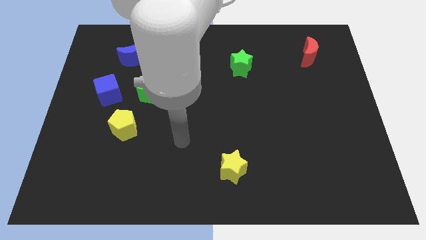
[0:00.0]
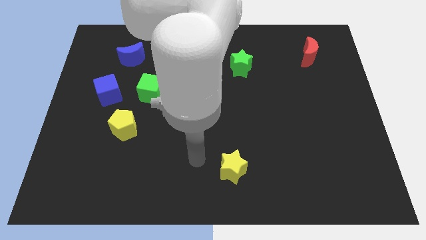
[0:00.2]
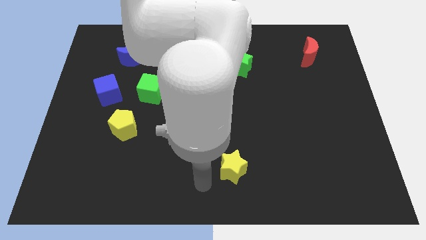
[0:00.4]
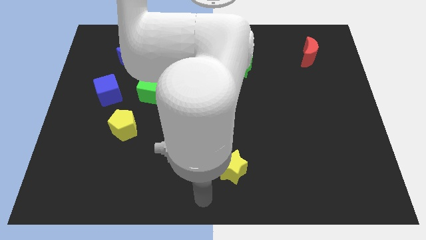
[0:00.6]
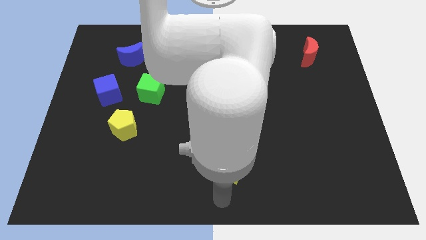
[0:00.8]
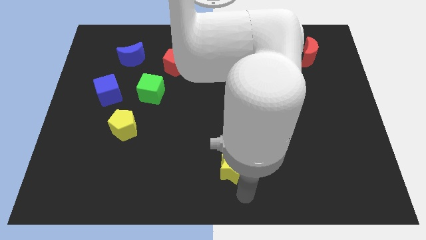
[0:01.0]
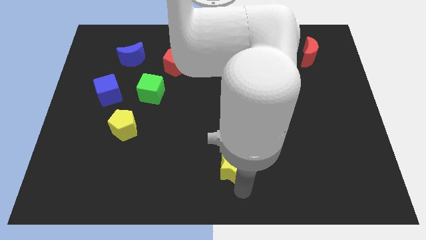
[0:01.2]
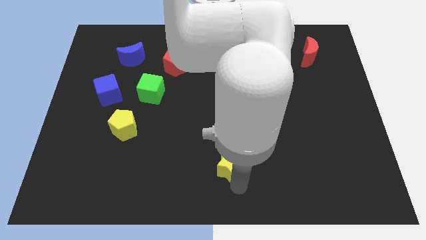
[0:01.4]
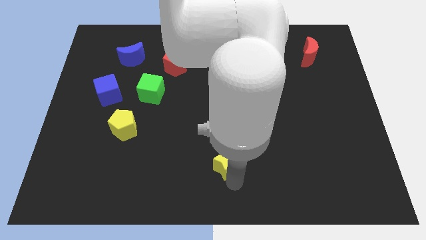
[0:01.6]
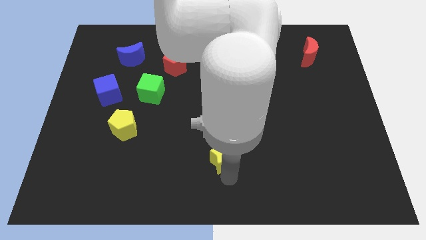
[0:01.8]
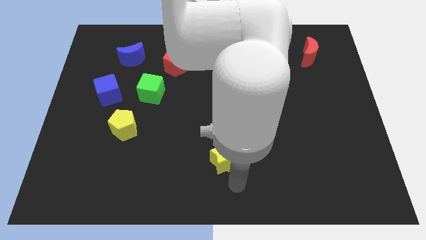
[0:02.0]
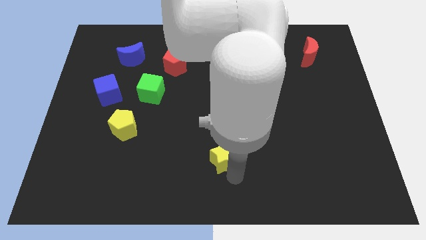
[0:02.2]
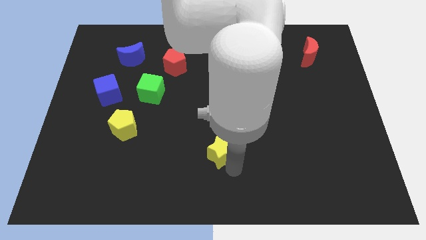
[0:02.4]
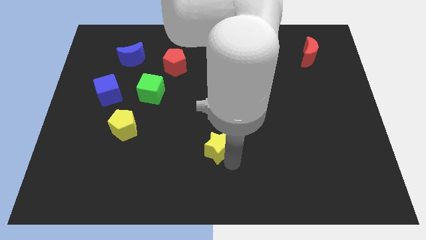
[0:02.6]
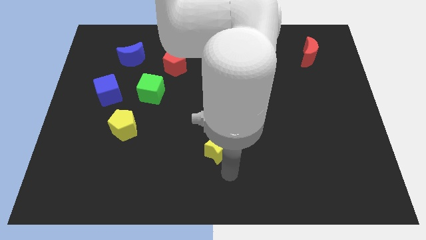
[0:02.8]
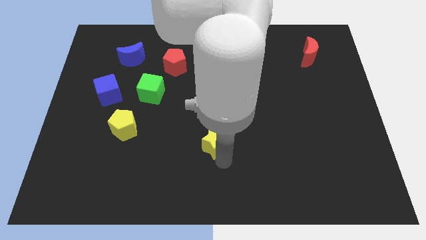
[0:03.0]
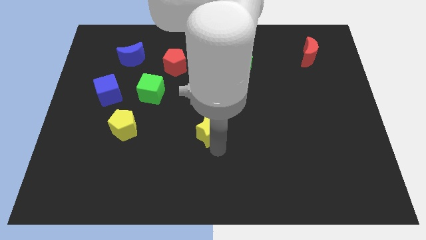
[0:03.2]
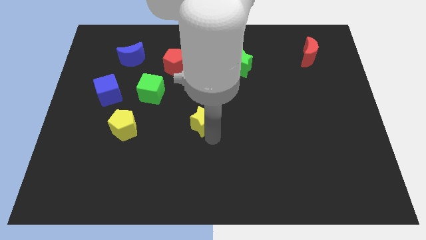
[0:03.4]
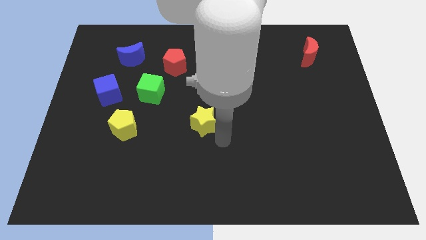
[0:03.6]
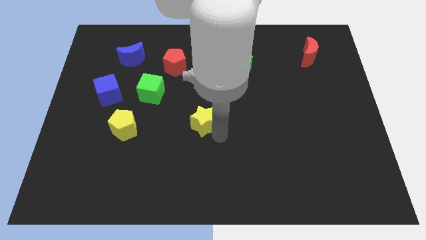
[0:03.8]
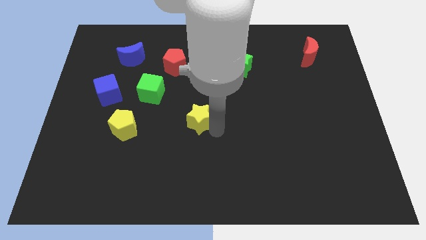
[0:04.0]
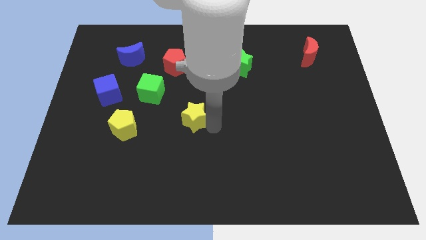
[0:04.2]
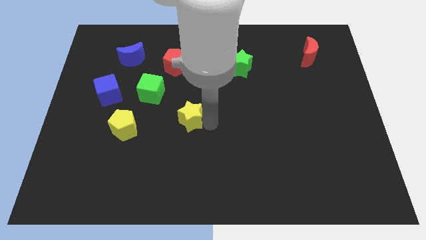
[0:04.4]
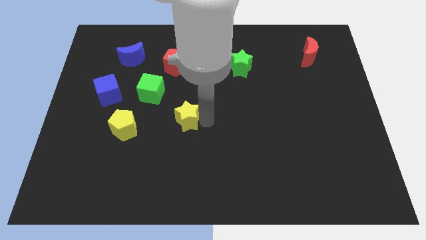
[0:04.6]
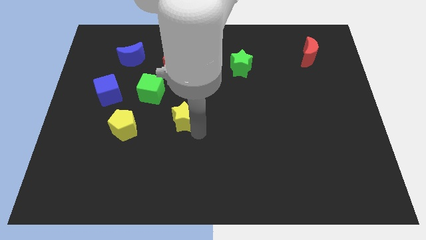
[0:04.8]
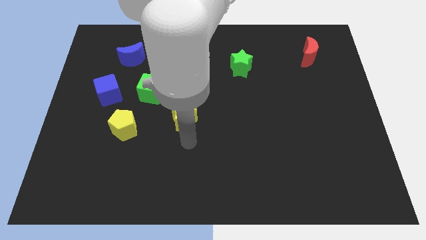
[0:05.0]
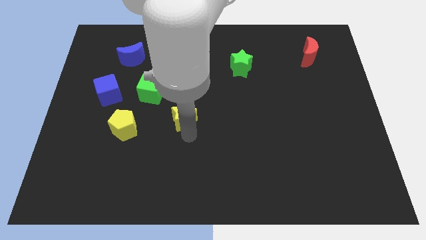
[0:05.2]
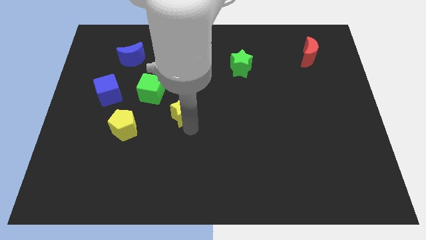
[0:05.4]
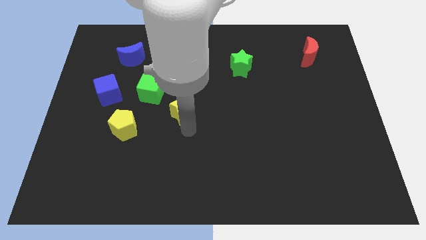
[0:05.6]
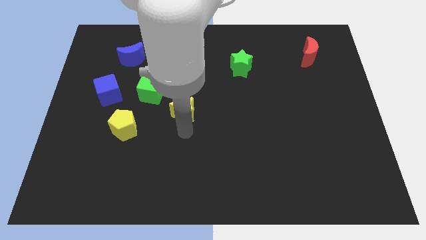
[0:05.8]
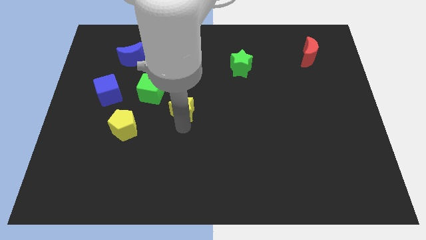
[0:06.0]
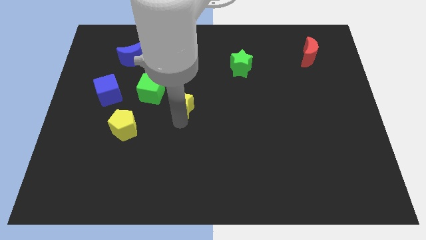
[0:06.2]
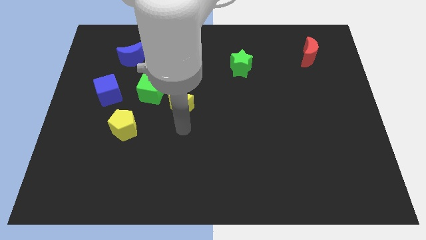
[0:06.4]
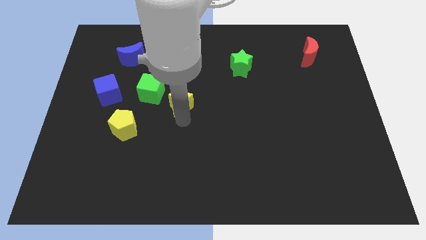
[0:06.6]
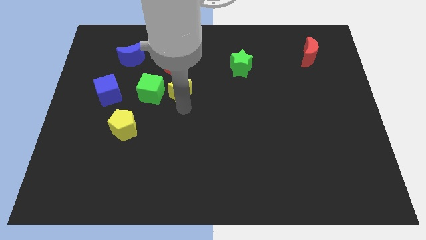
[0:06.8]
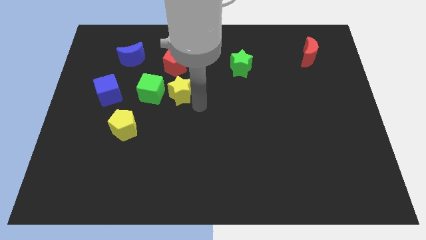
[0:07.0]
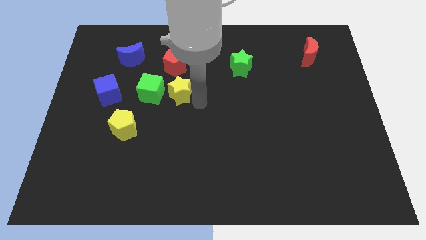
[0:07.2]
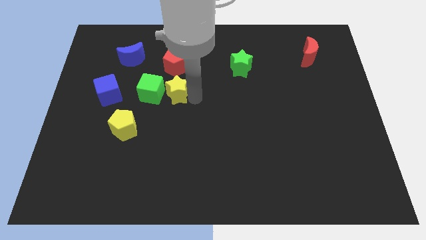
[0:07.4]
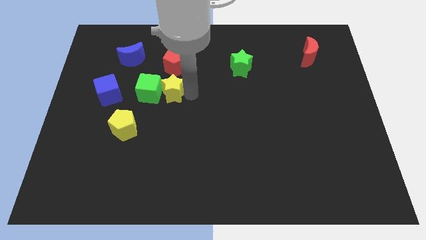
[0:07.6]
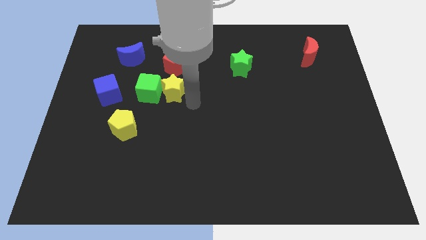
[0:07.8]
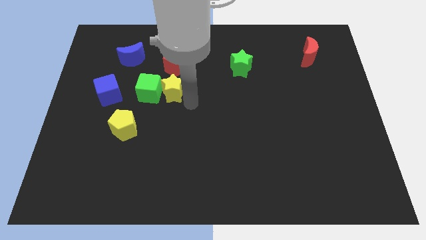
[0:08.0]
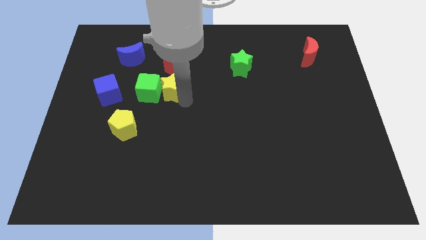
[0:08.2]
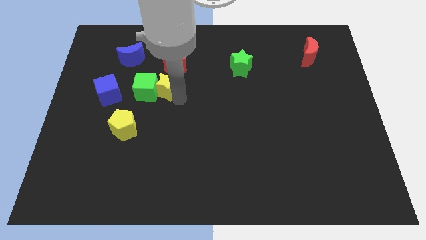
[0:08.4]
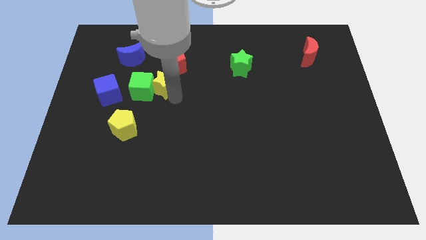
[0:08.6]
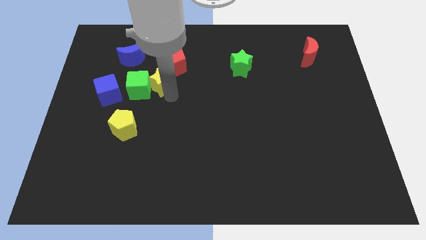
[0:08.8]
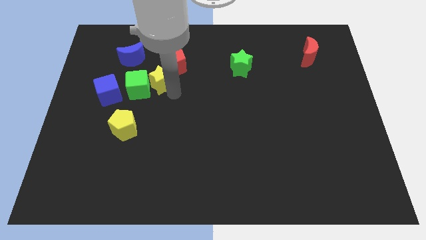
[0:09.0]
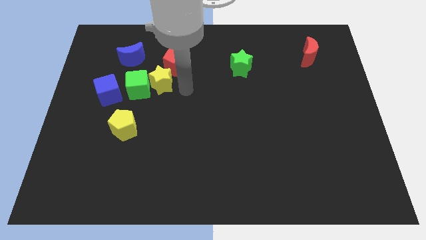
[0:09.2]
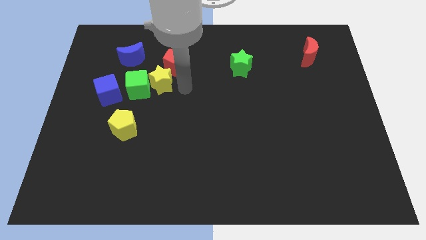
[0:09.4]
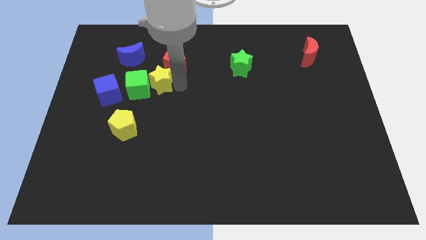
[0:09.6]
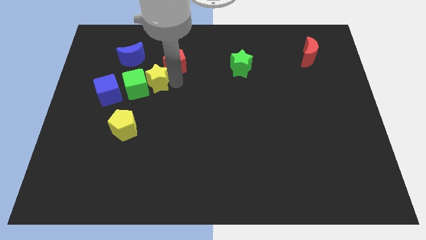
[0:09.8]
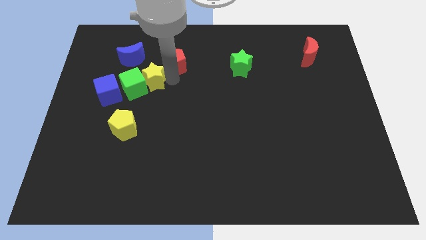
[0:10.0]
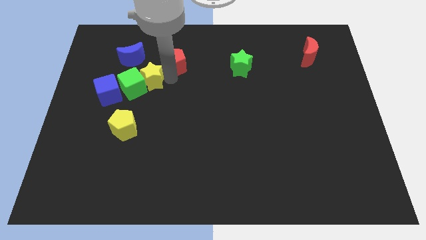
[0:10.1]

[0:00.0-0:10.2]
push the yellow star to the left of the red pentagon

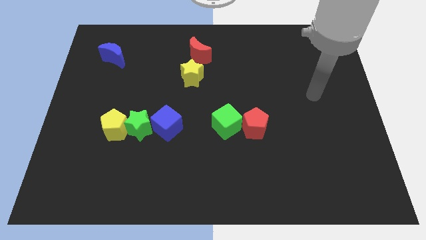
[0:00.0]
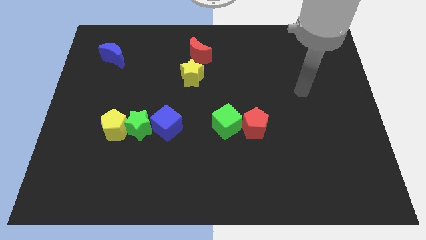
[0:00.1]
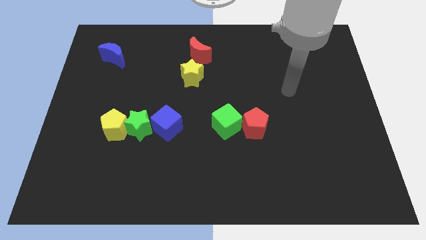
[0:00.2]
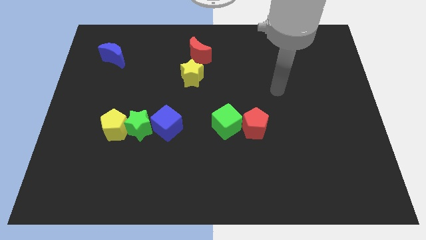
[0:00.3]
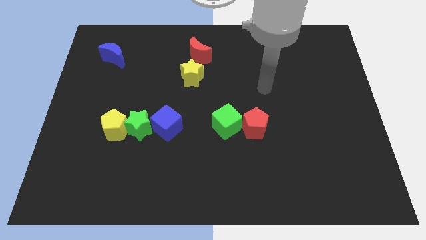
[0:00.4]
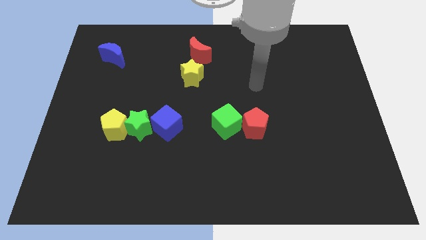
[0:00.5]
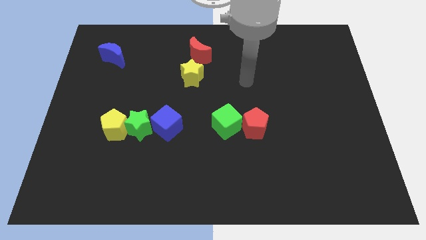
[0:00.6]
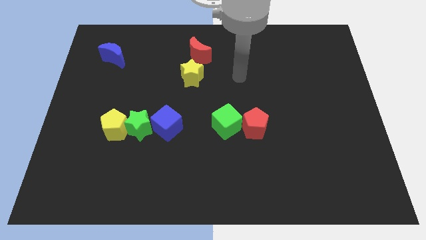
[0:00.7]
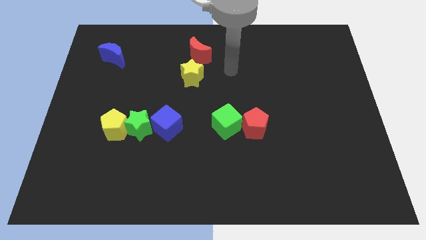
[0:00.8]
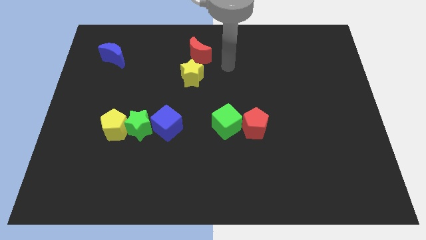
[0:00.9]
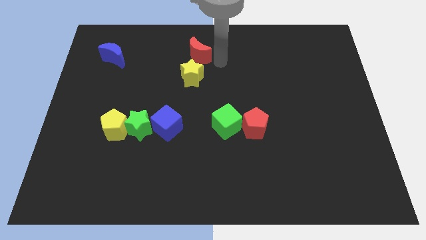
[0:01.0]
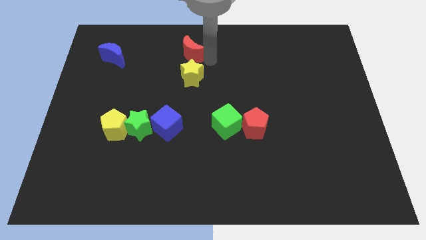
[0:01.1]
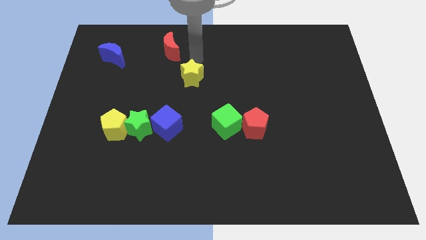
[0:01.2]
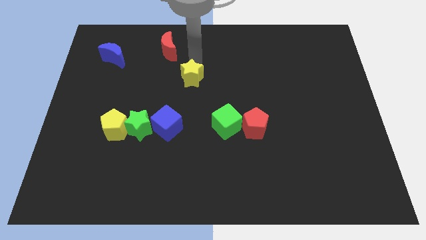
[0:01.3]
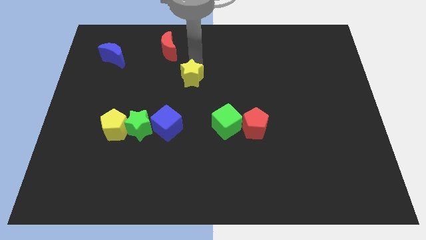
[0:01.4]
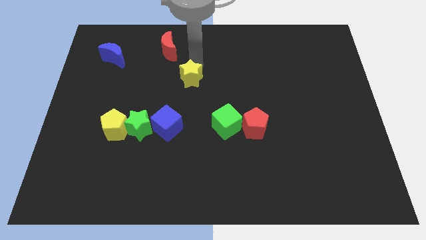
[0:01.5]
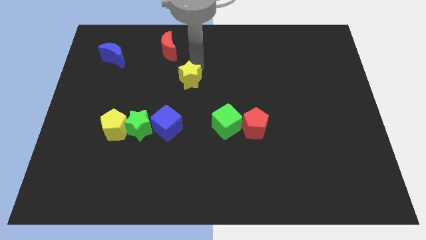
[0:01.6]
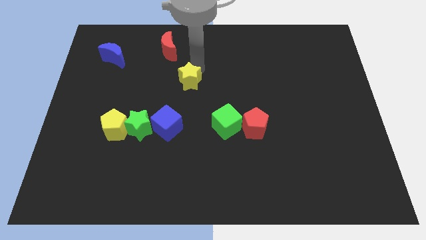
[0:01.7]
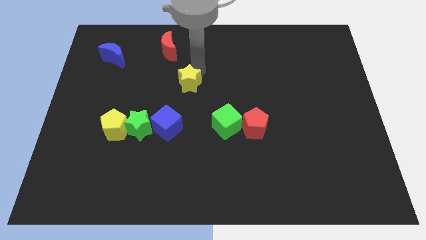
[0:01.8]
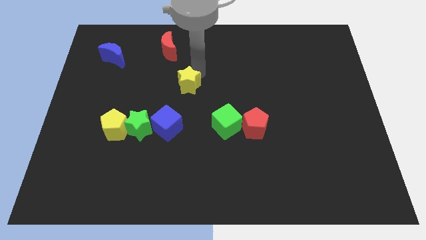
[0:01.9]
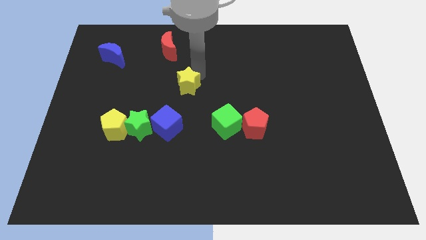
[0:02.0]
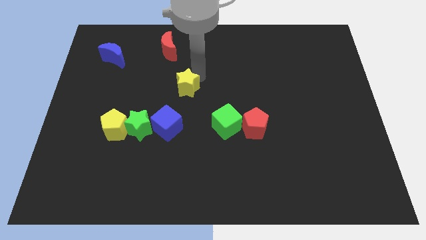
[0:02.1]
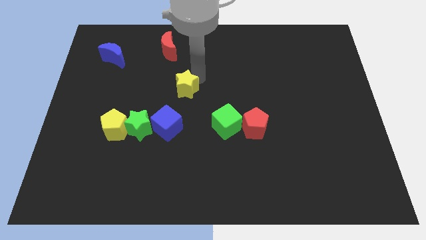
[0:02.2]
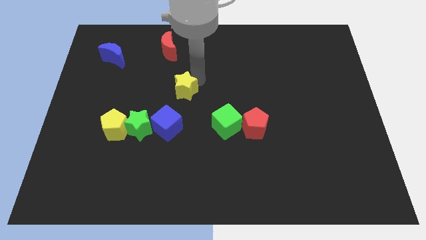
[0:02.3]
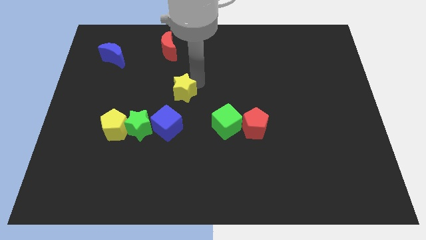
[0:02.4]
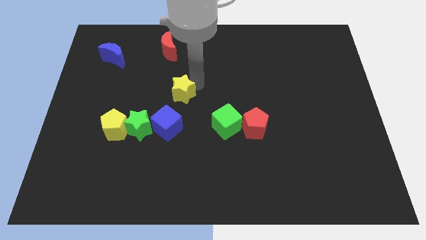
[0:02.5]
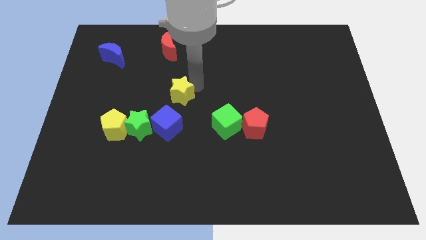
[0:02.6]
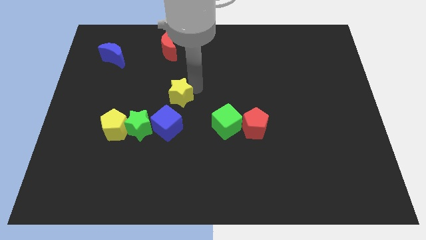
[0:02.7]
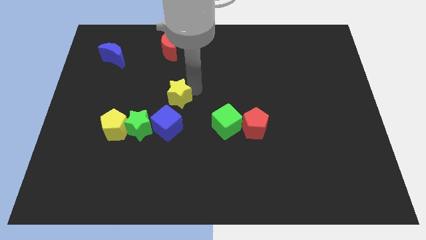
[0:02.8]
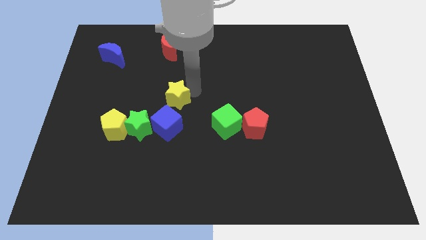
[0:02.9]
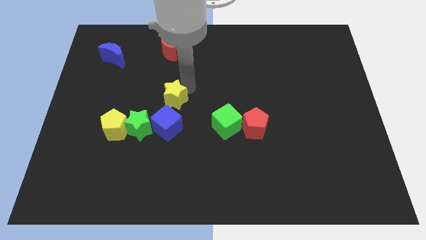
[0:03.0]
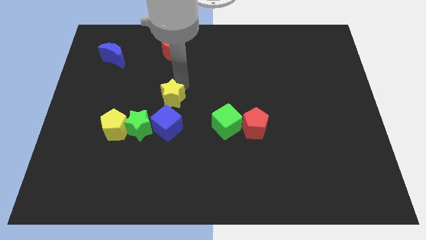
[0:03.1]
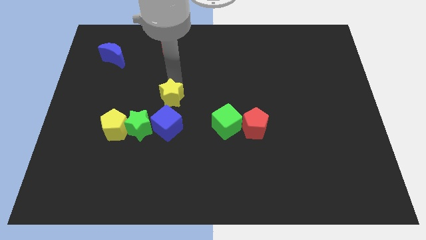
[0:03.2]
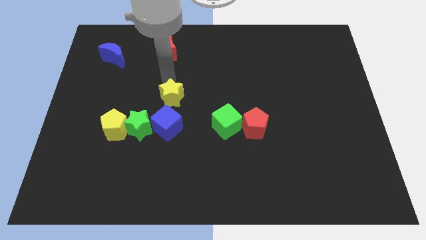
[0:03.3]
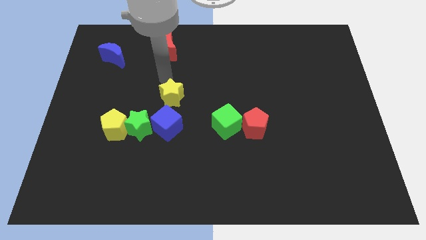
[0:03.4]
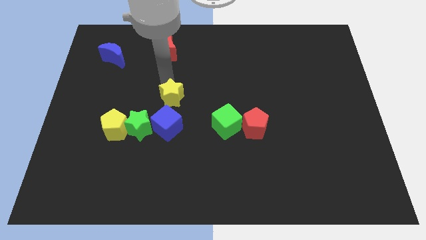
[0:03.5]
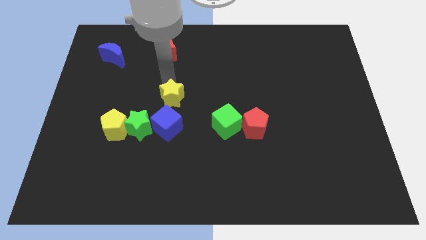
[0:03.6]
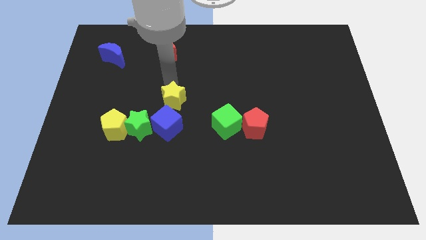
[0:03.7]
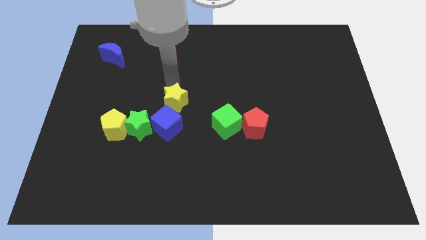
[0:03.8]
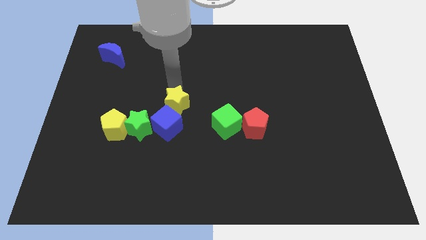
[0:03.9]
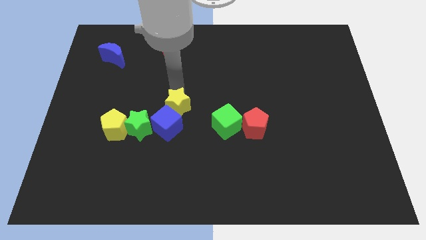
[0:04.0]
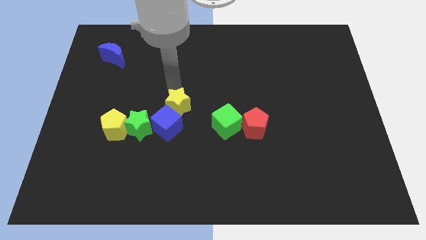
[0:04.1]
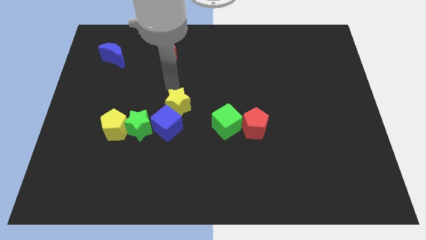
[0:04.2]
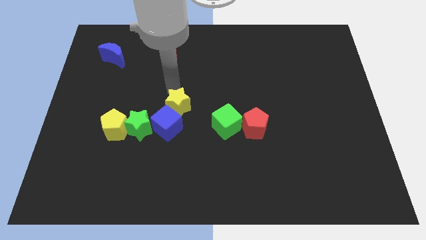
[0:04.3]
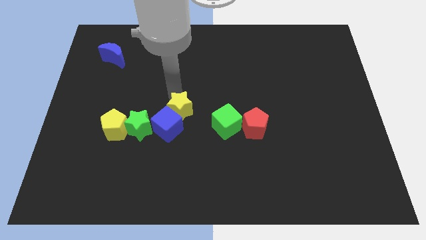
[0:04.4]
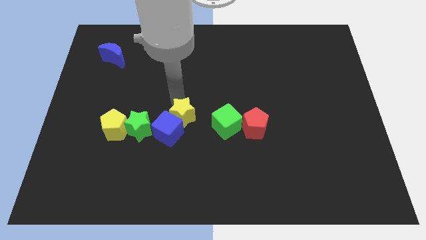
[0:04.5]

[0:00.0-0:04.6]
move the yellow star to the right side of the yellow pentagon
